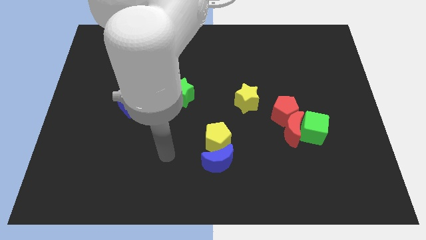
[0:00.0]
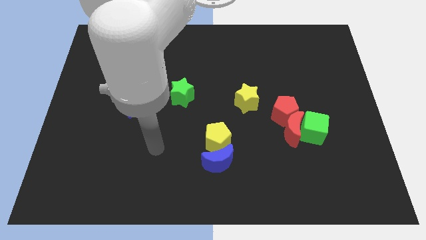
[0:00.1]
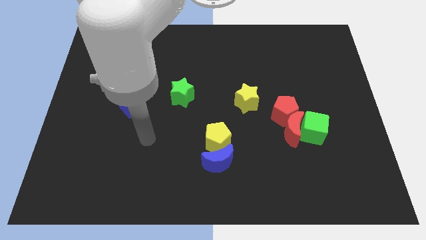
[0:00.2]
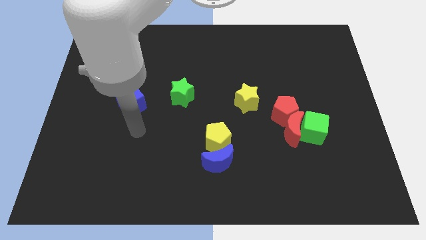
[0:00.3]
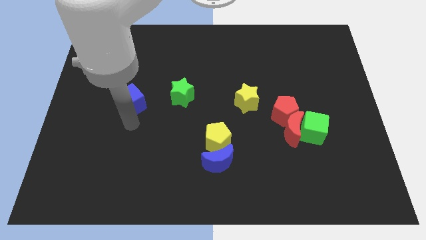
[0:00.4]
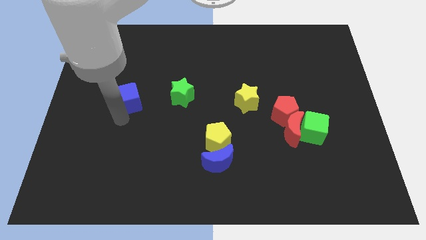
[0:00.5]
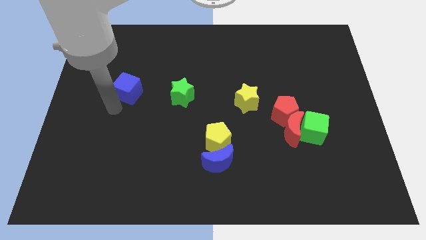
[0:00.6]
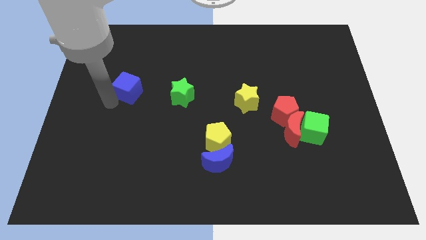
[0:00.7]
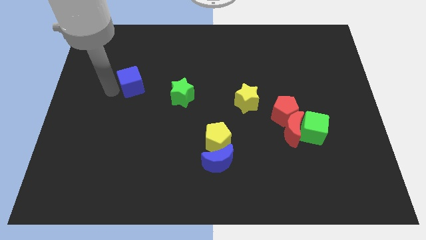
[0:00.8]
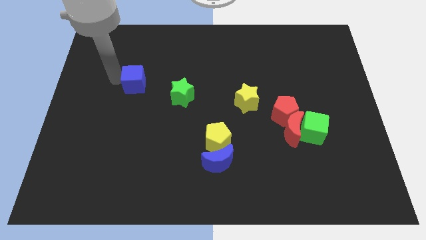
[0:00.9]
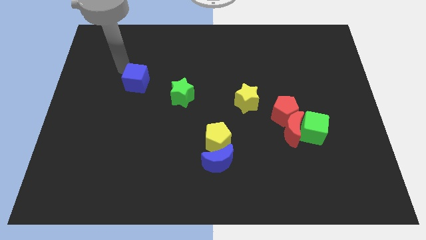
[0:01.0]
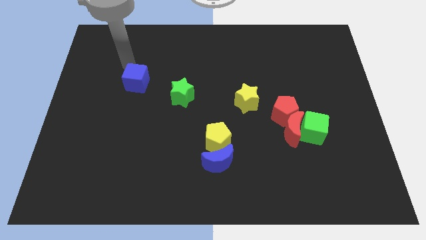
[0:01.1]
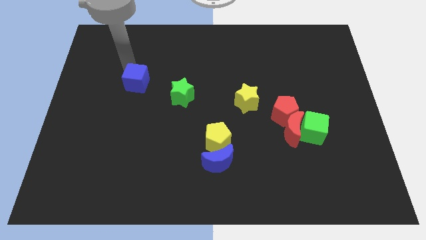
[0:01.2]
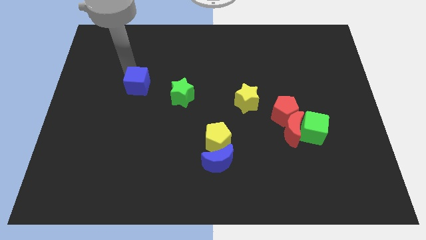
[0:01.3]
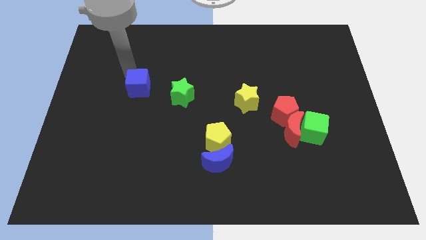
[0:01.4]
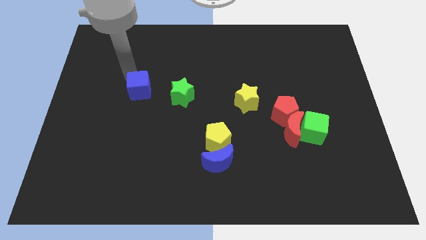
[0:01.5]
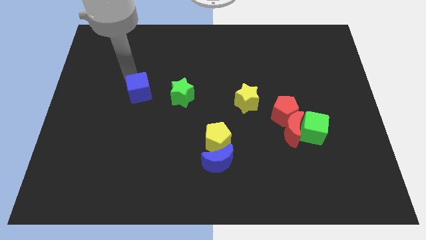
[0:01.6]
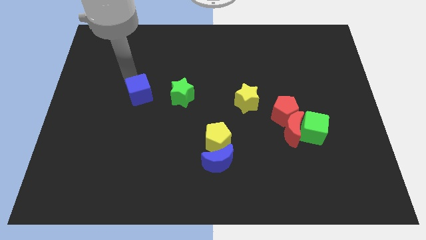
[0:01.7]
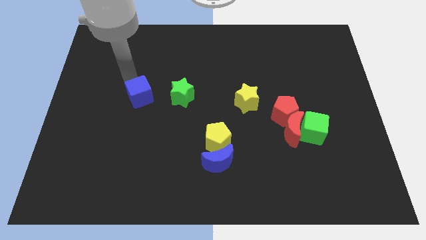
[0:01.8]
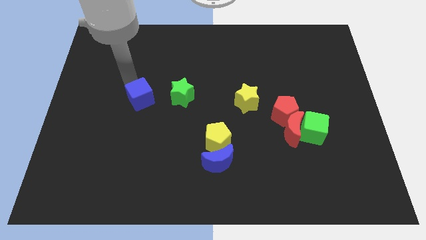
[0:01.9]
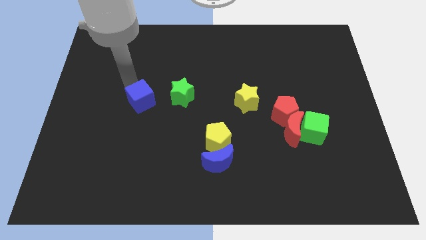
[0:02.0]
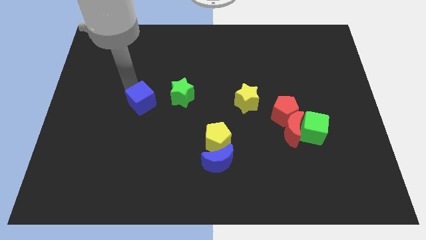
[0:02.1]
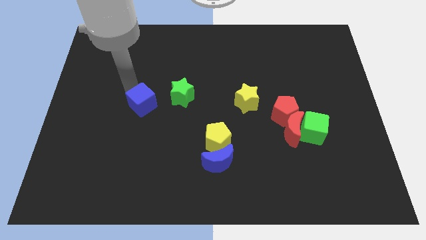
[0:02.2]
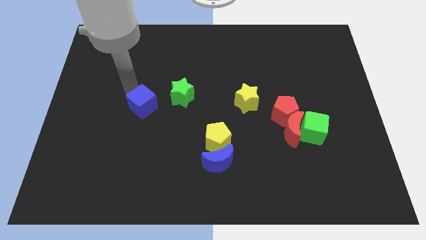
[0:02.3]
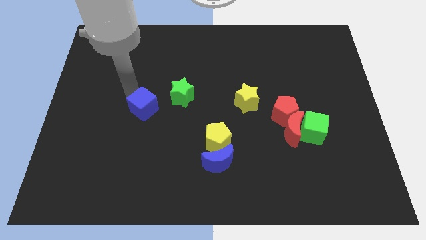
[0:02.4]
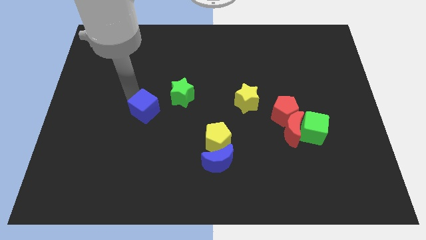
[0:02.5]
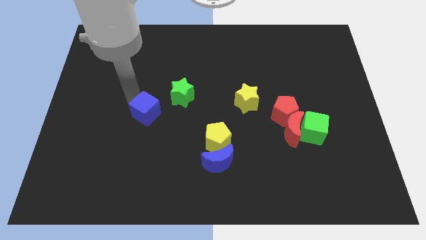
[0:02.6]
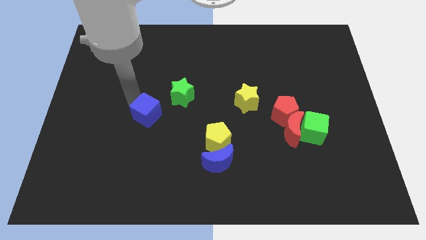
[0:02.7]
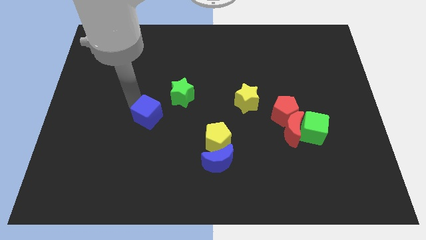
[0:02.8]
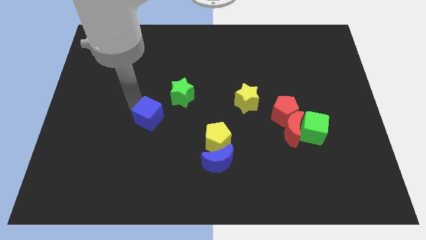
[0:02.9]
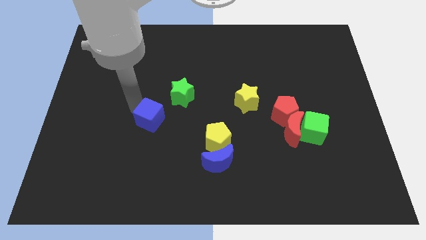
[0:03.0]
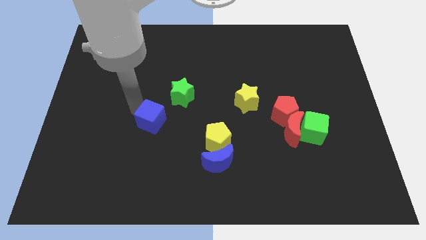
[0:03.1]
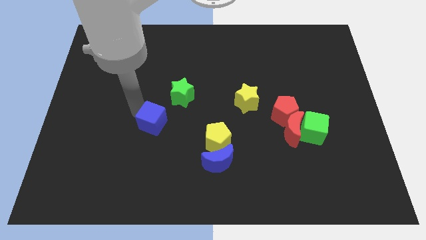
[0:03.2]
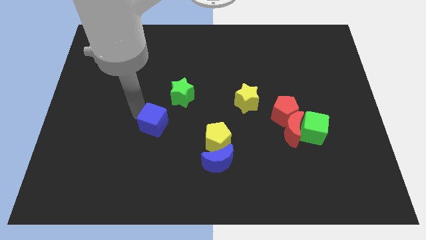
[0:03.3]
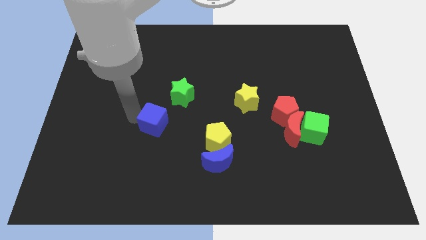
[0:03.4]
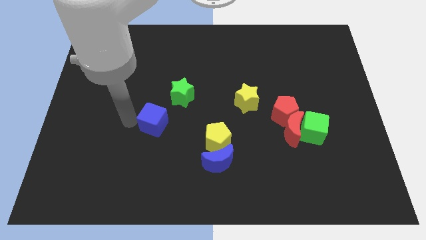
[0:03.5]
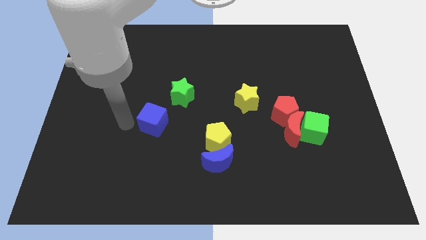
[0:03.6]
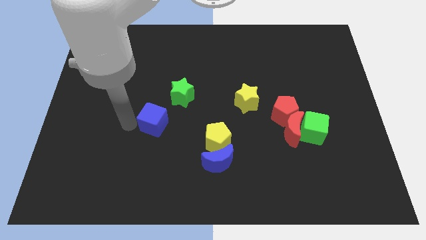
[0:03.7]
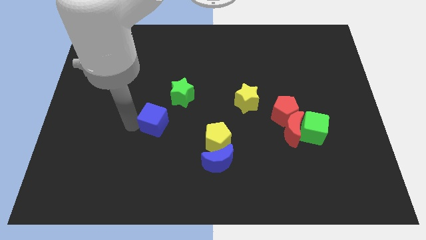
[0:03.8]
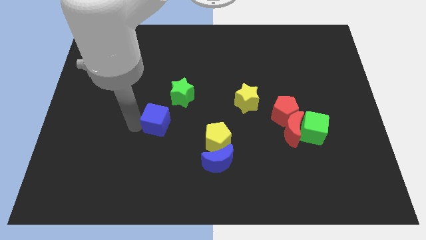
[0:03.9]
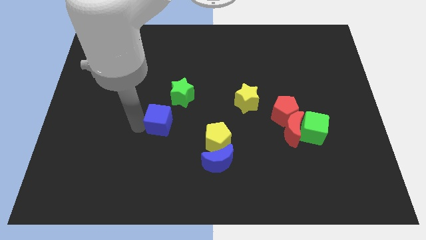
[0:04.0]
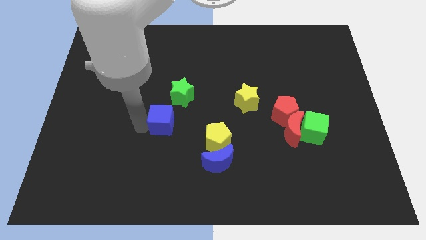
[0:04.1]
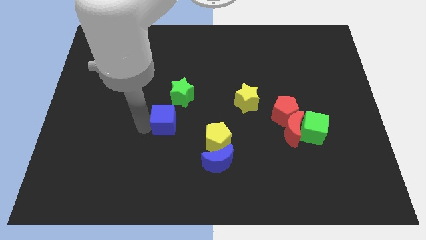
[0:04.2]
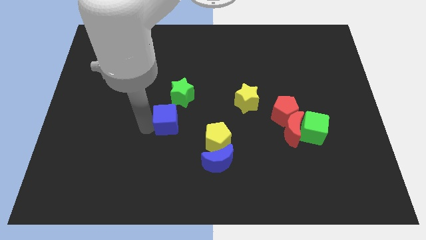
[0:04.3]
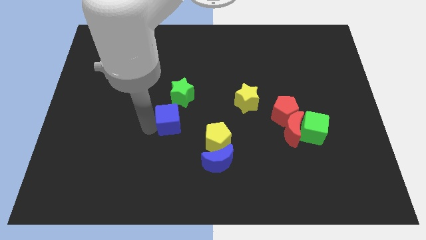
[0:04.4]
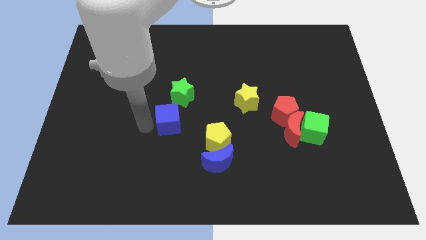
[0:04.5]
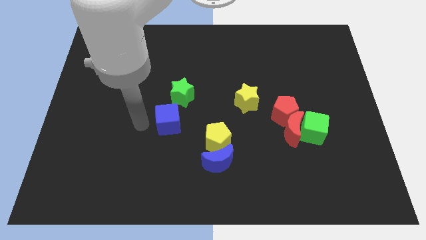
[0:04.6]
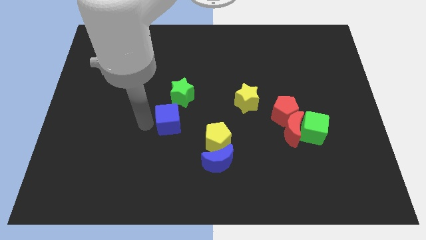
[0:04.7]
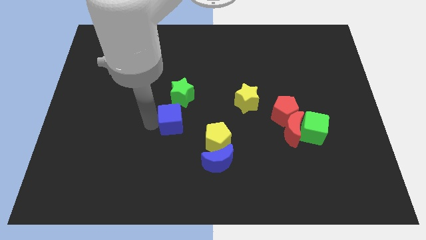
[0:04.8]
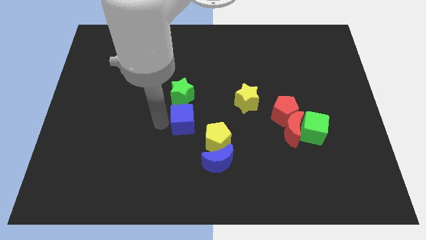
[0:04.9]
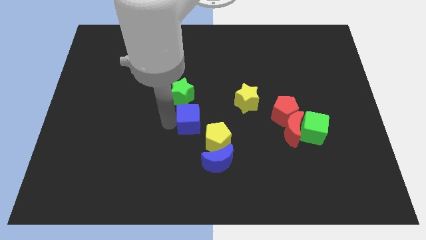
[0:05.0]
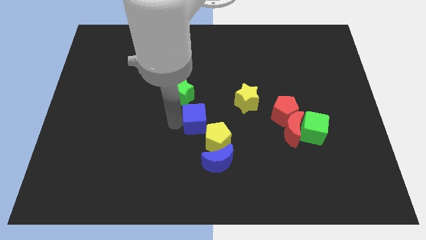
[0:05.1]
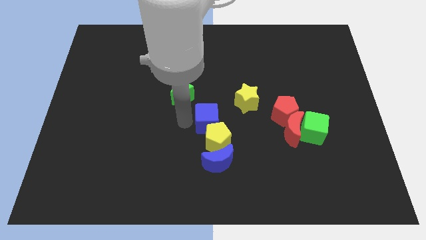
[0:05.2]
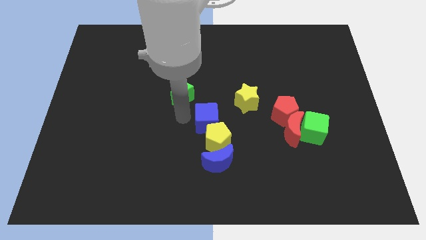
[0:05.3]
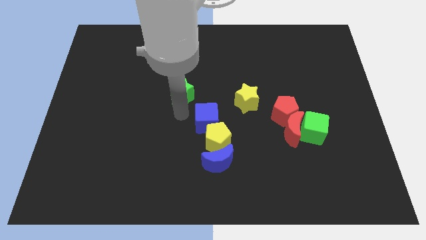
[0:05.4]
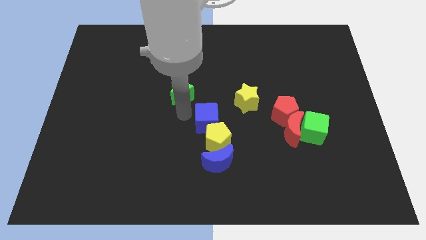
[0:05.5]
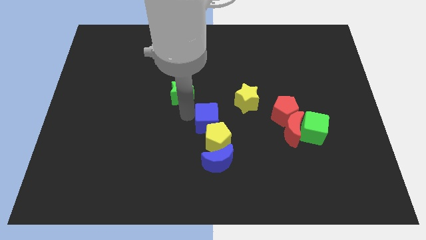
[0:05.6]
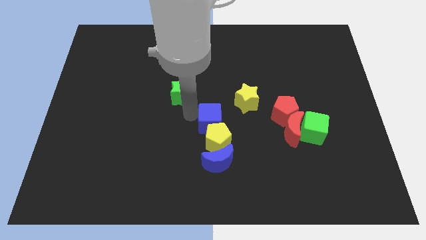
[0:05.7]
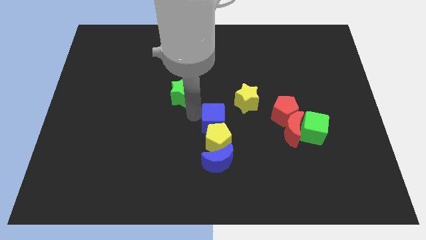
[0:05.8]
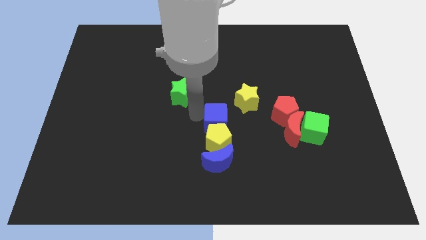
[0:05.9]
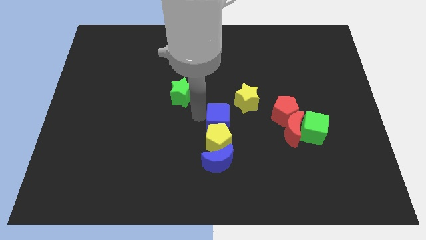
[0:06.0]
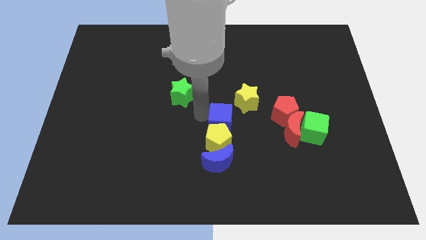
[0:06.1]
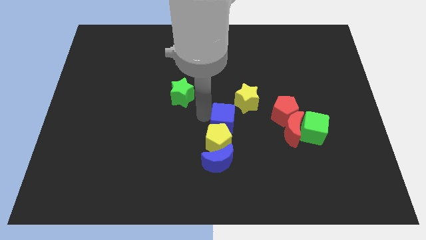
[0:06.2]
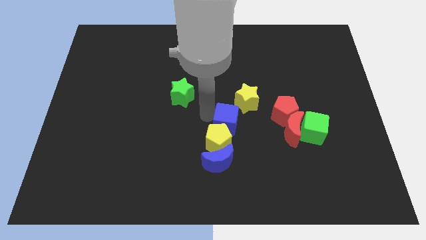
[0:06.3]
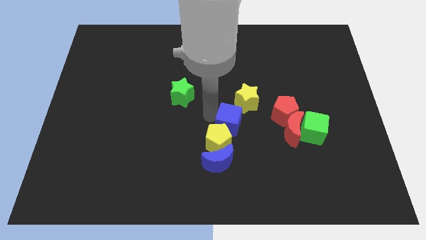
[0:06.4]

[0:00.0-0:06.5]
push the blue cube to the bottom side of the yellow star
